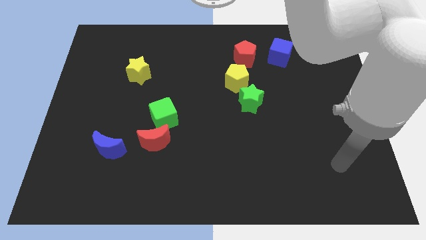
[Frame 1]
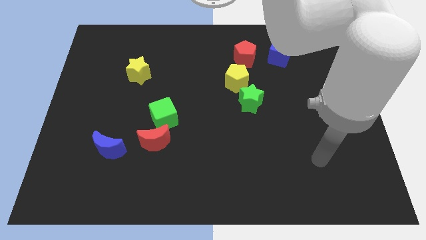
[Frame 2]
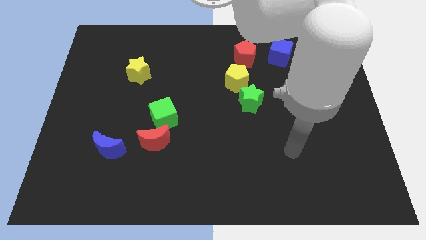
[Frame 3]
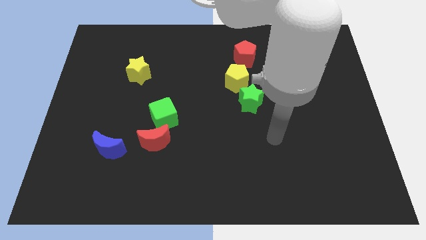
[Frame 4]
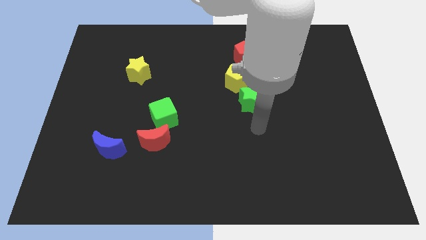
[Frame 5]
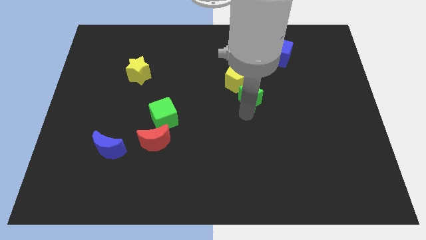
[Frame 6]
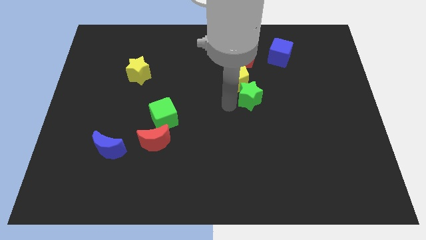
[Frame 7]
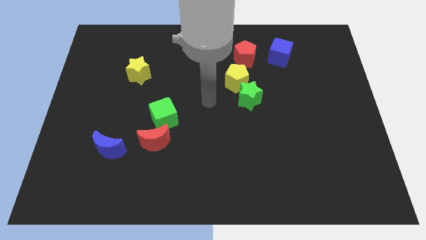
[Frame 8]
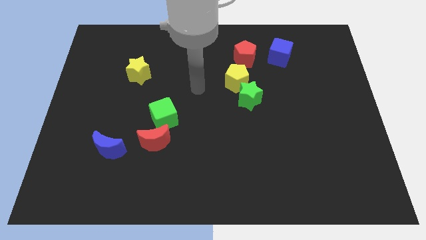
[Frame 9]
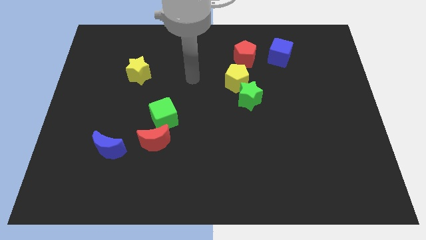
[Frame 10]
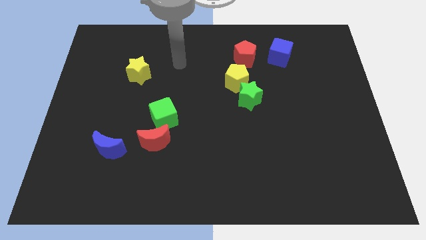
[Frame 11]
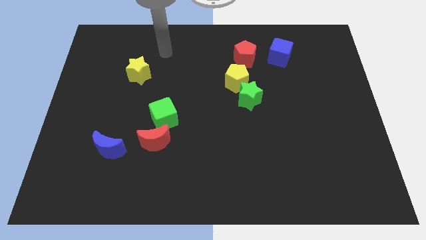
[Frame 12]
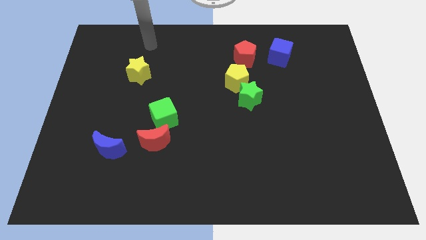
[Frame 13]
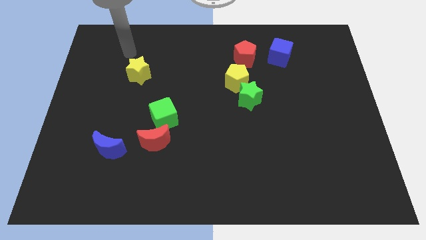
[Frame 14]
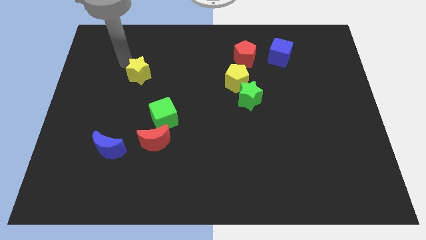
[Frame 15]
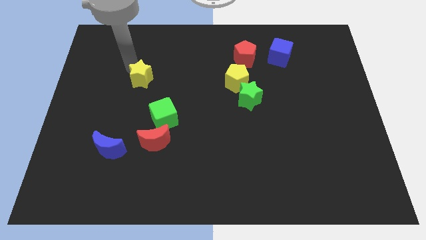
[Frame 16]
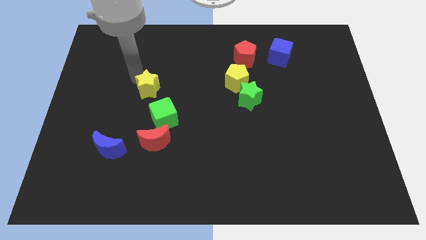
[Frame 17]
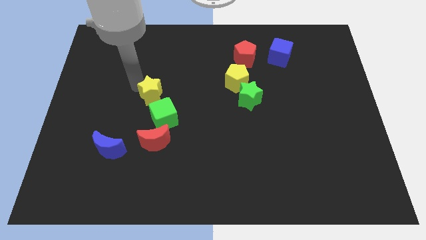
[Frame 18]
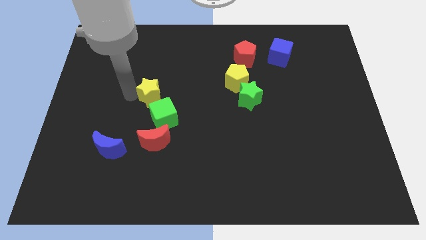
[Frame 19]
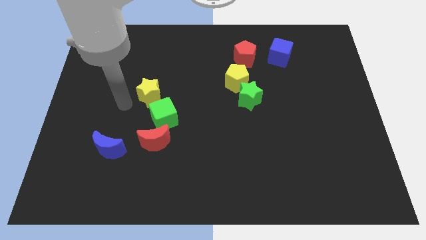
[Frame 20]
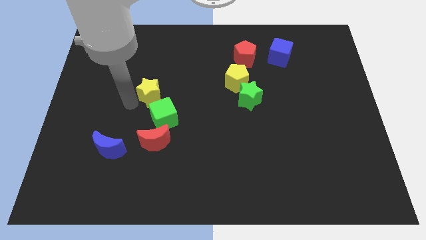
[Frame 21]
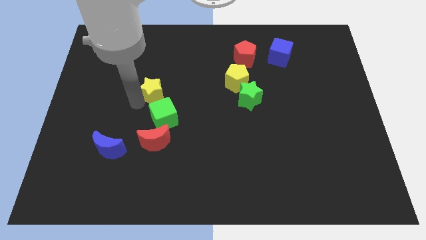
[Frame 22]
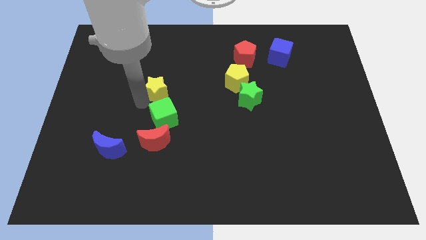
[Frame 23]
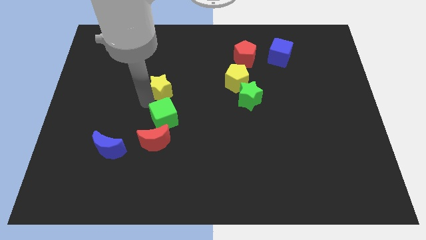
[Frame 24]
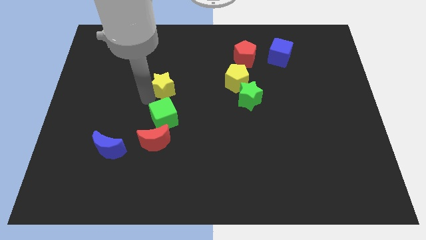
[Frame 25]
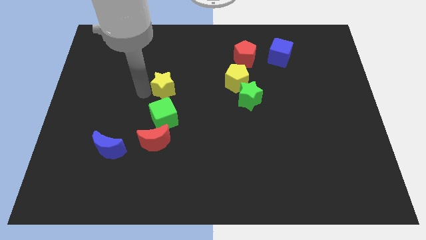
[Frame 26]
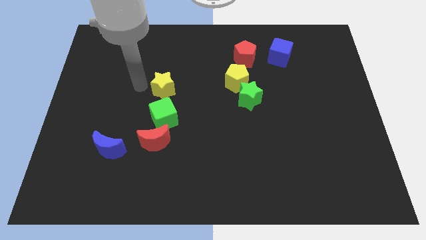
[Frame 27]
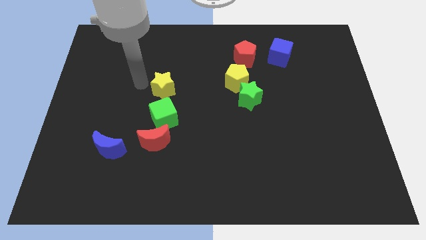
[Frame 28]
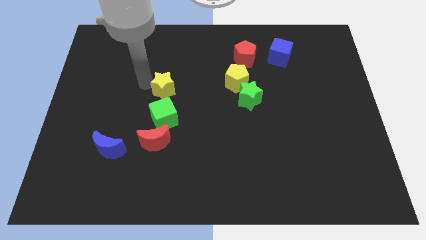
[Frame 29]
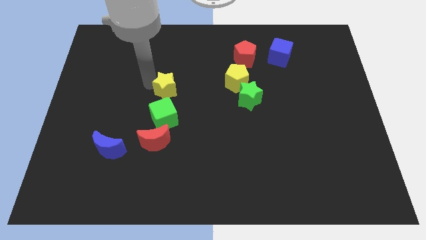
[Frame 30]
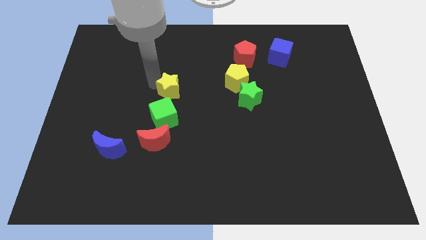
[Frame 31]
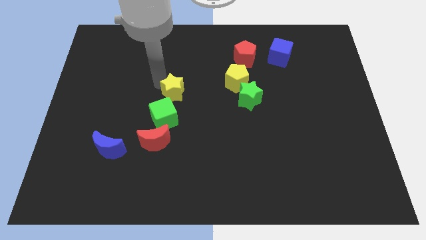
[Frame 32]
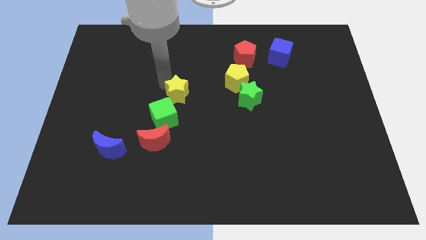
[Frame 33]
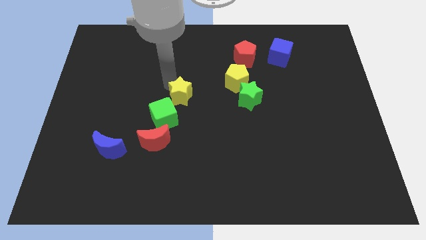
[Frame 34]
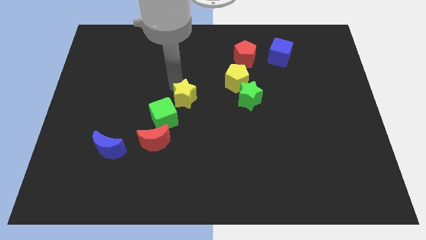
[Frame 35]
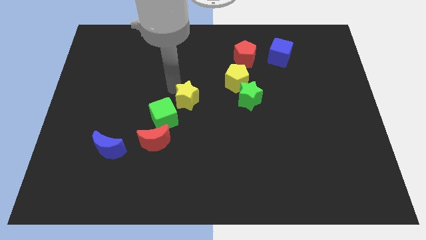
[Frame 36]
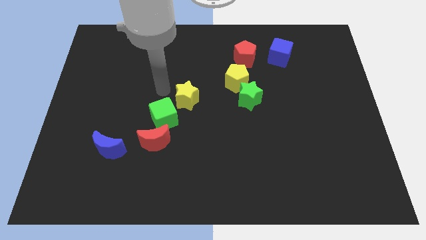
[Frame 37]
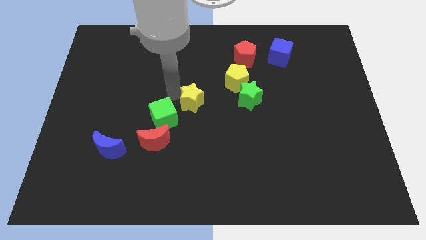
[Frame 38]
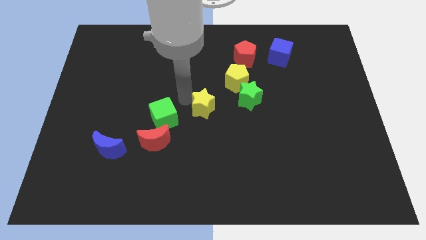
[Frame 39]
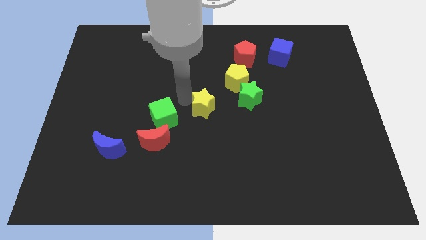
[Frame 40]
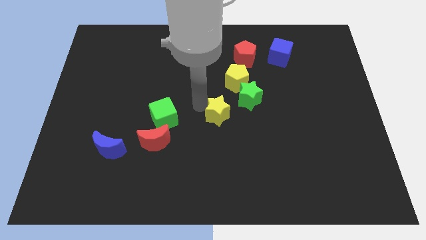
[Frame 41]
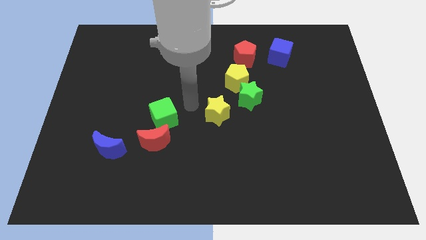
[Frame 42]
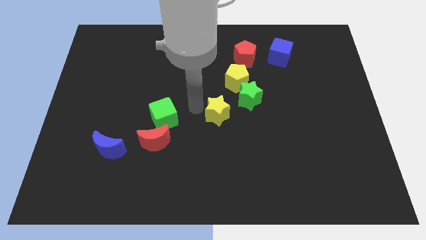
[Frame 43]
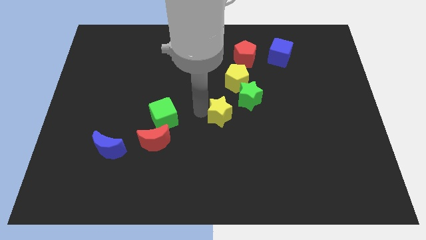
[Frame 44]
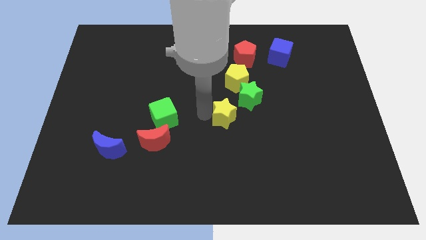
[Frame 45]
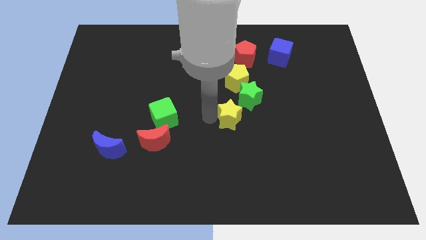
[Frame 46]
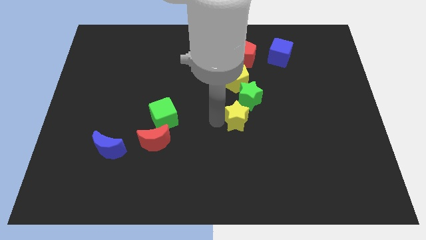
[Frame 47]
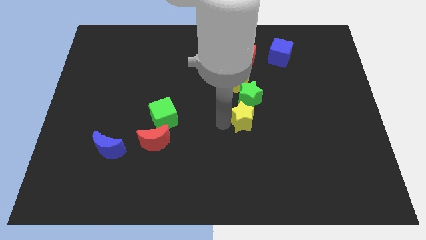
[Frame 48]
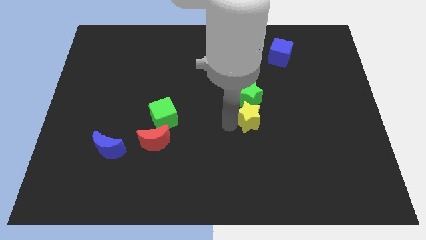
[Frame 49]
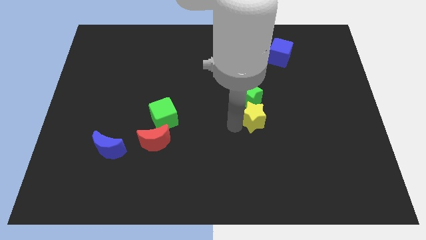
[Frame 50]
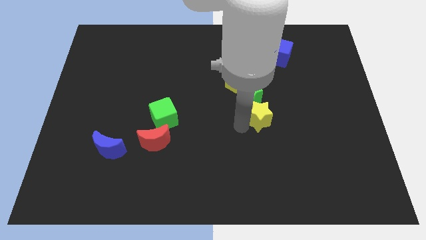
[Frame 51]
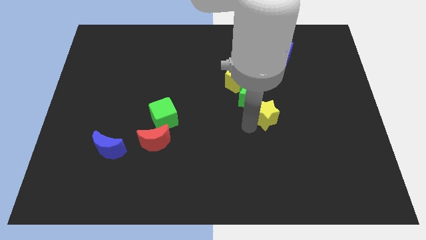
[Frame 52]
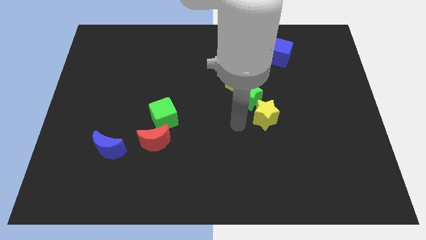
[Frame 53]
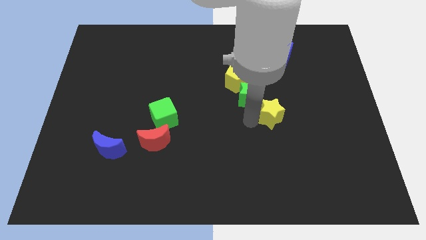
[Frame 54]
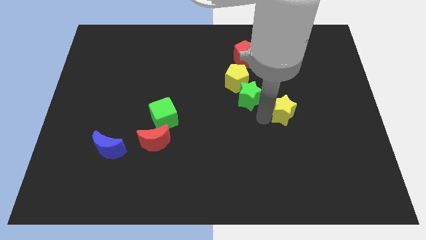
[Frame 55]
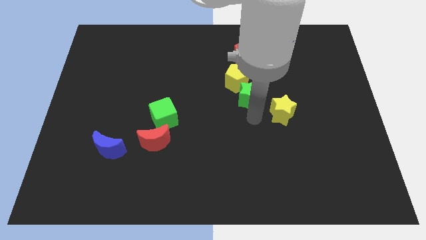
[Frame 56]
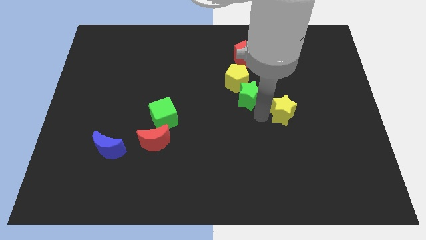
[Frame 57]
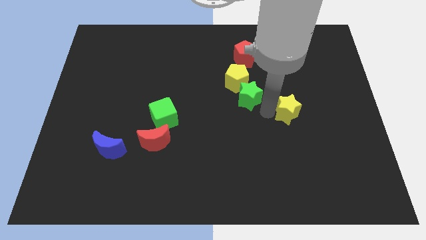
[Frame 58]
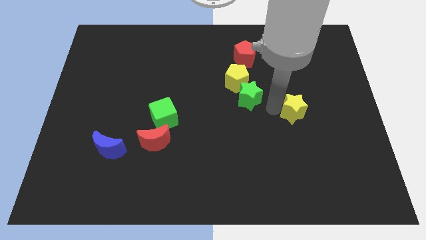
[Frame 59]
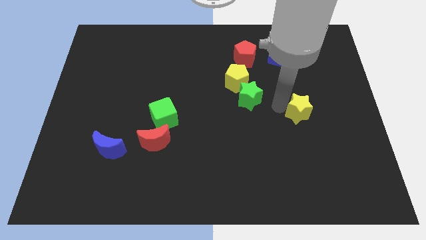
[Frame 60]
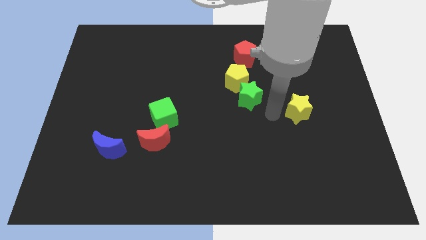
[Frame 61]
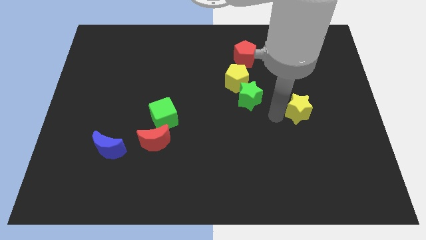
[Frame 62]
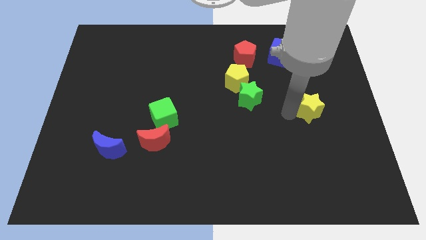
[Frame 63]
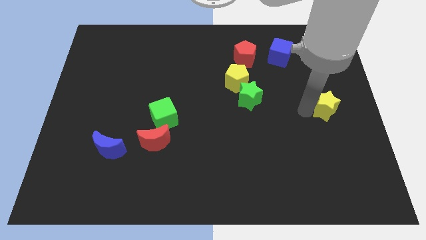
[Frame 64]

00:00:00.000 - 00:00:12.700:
put the yellow star to the right side of the board

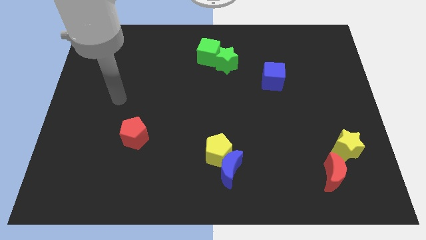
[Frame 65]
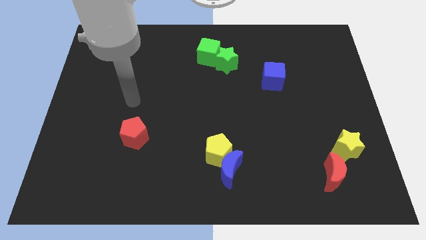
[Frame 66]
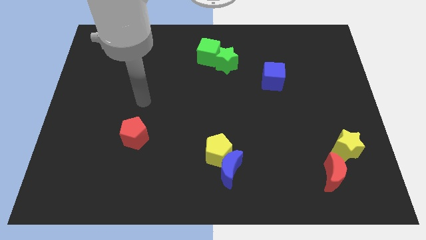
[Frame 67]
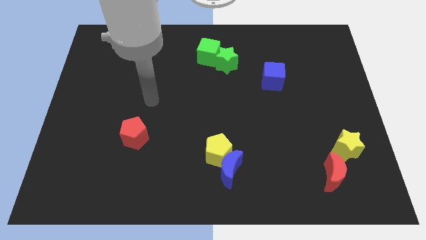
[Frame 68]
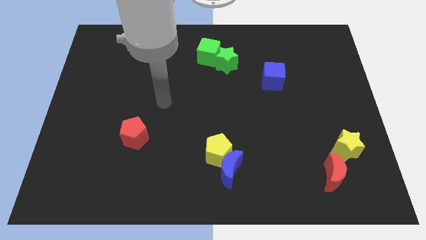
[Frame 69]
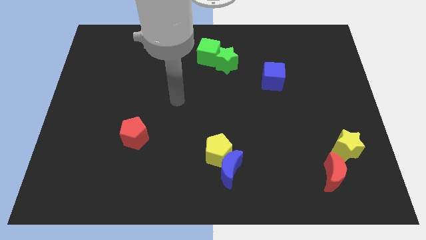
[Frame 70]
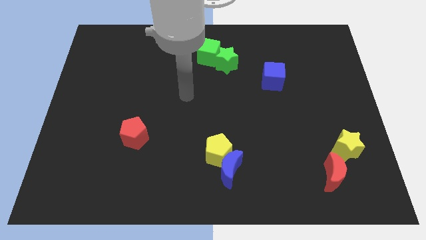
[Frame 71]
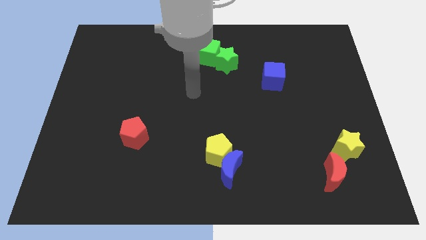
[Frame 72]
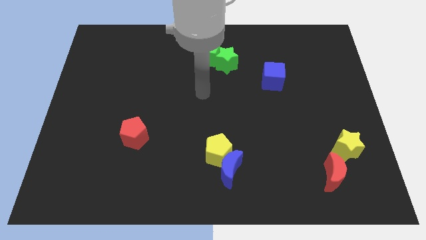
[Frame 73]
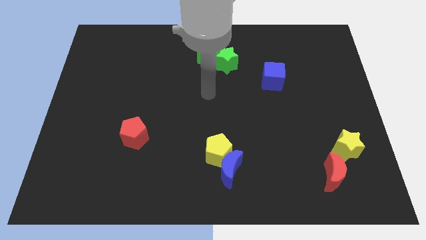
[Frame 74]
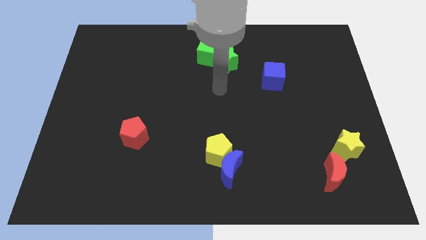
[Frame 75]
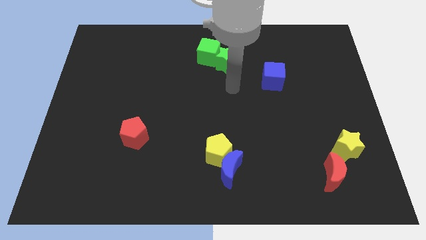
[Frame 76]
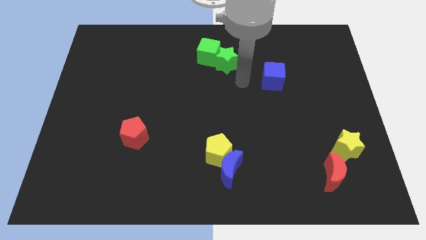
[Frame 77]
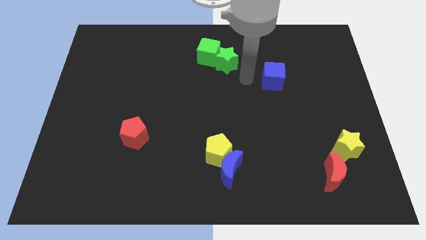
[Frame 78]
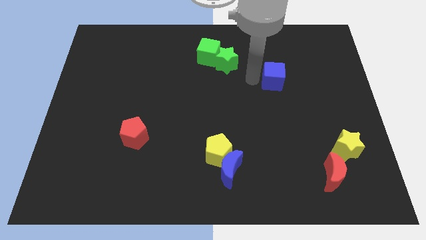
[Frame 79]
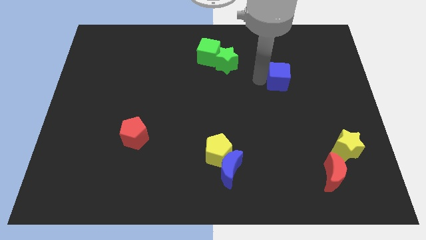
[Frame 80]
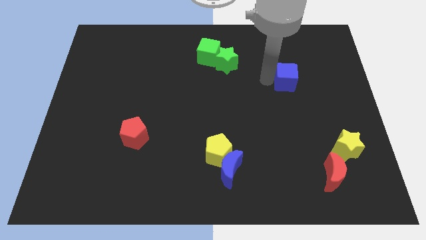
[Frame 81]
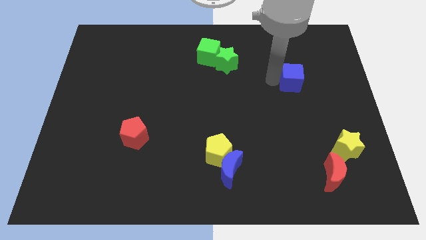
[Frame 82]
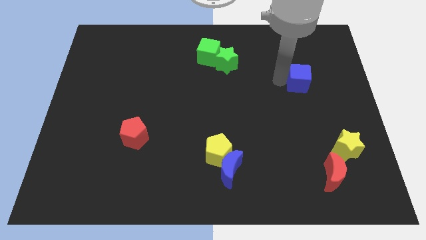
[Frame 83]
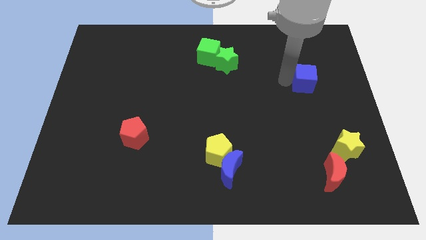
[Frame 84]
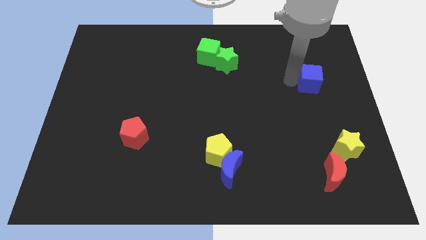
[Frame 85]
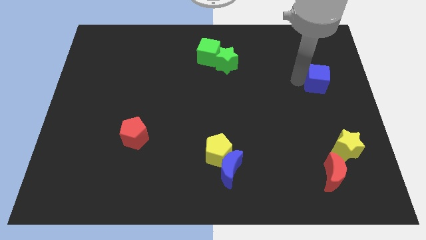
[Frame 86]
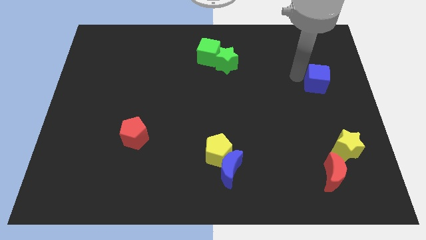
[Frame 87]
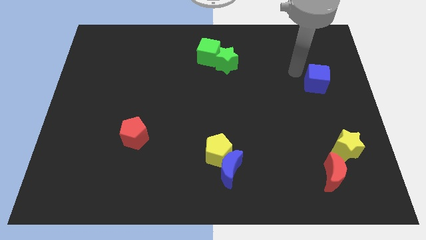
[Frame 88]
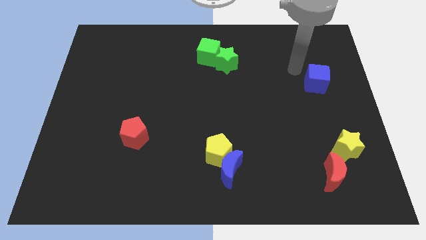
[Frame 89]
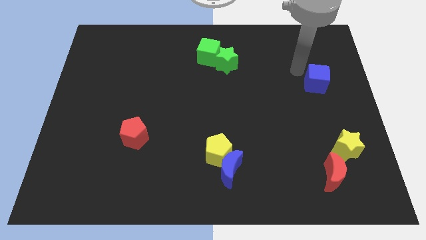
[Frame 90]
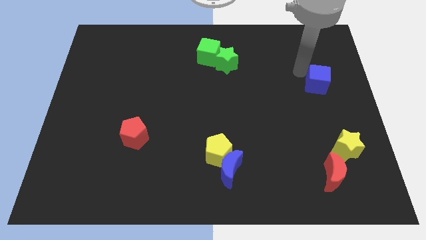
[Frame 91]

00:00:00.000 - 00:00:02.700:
move the blue cube to the center right
